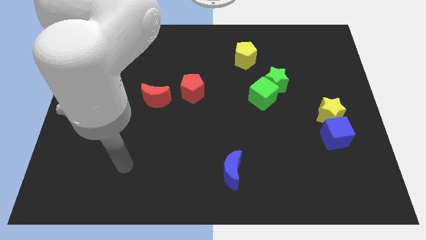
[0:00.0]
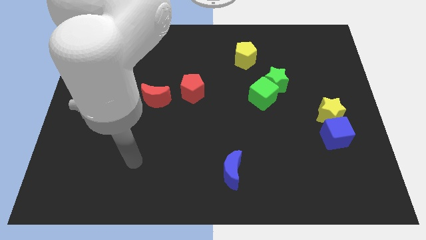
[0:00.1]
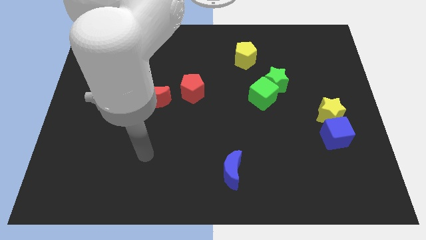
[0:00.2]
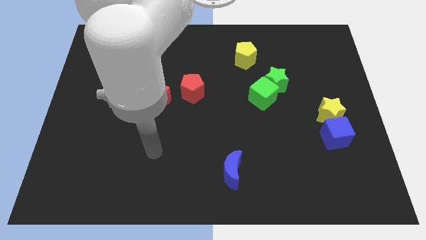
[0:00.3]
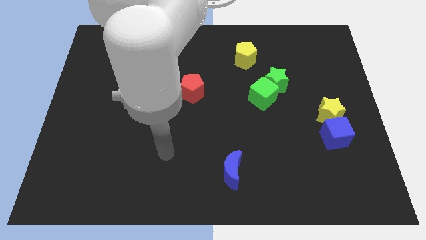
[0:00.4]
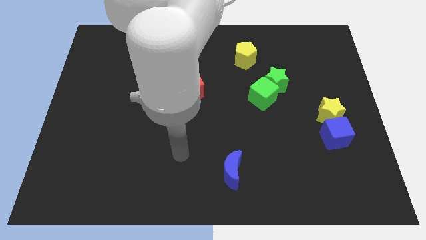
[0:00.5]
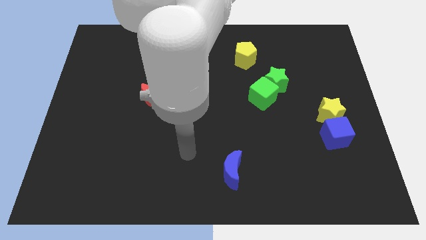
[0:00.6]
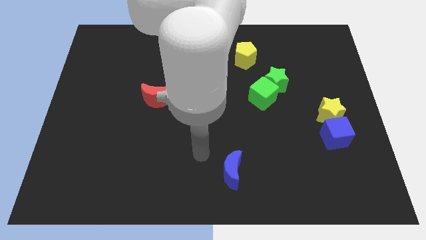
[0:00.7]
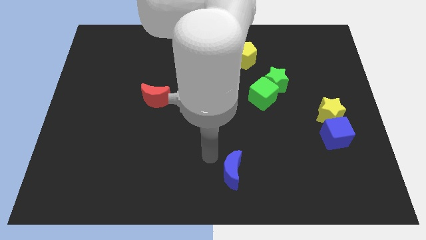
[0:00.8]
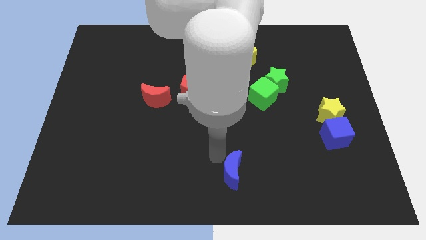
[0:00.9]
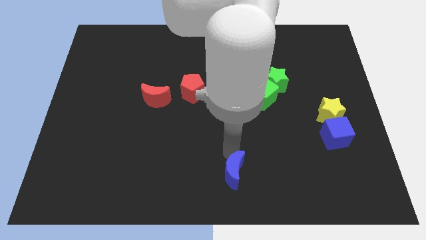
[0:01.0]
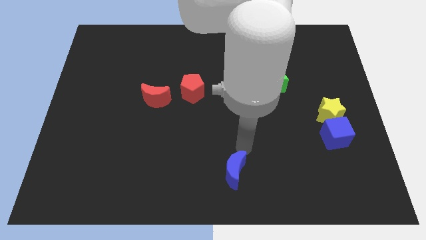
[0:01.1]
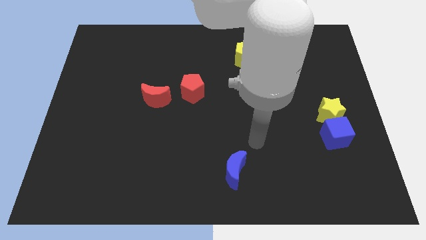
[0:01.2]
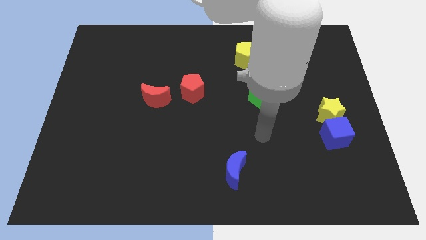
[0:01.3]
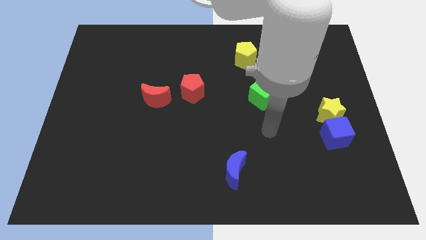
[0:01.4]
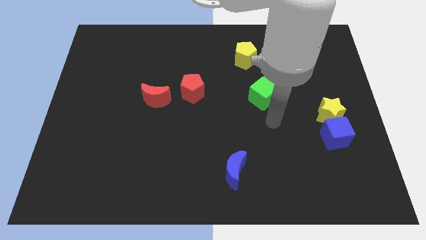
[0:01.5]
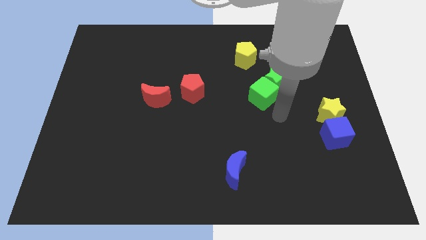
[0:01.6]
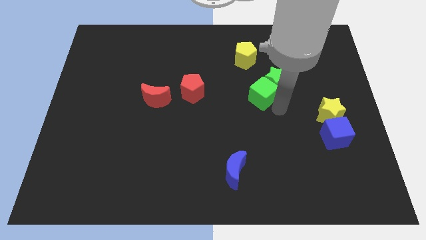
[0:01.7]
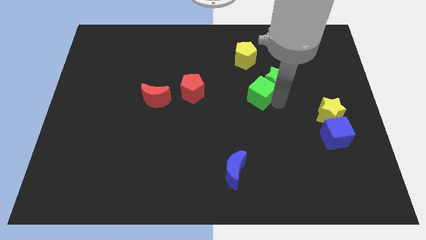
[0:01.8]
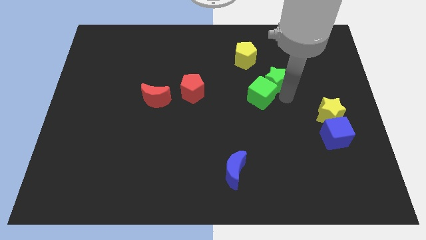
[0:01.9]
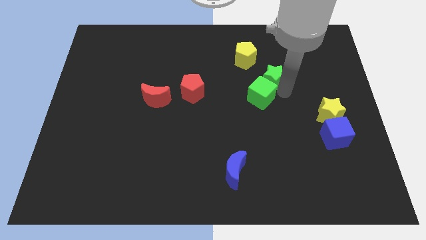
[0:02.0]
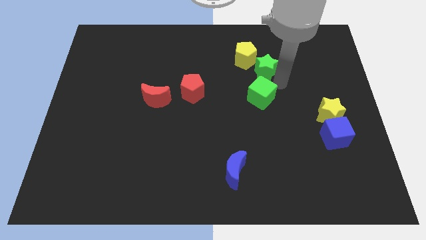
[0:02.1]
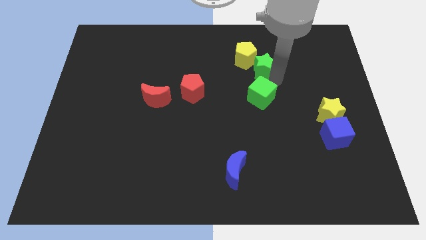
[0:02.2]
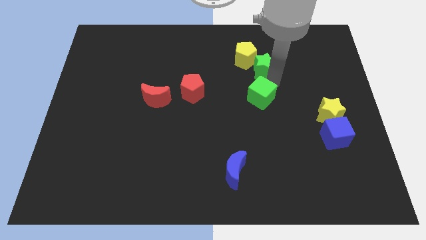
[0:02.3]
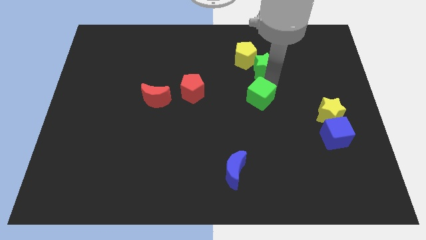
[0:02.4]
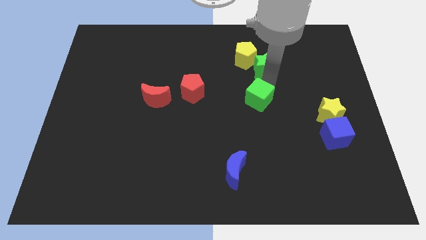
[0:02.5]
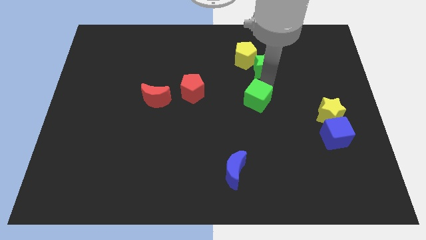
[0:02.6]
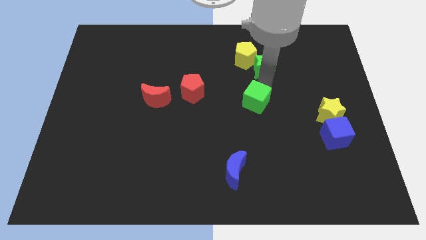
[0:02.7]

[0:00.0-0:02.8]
move the green cube away from the green star

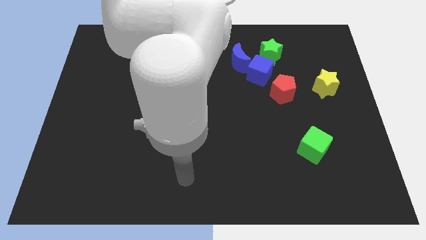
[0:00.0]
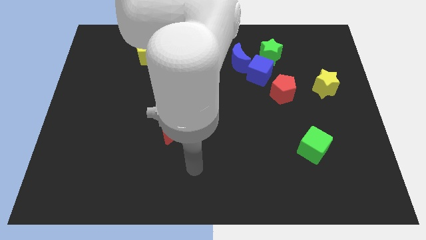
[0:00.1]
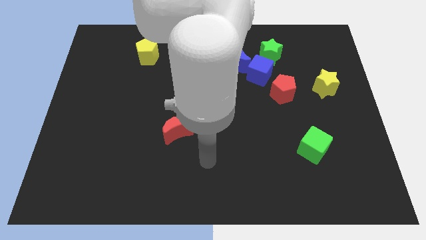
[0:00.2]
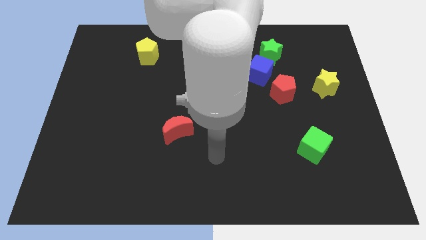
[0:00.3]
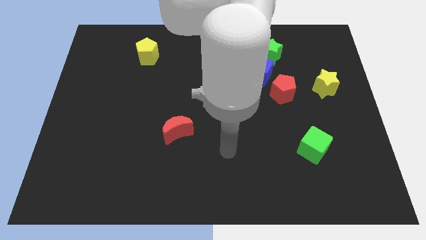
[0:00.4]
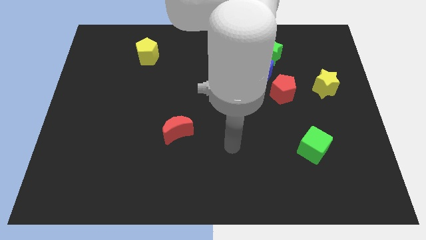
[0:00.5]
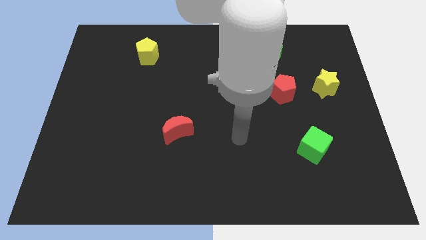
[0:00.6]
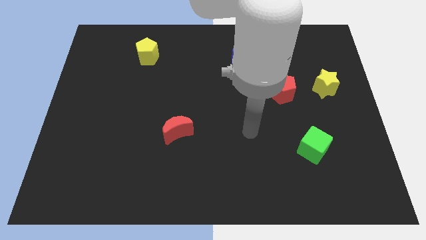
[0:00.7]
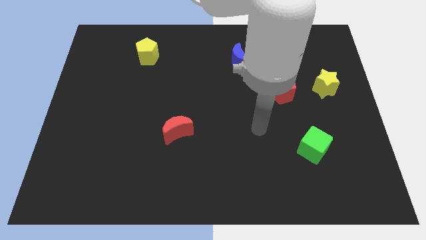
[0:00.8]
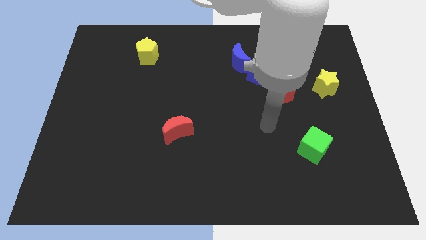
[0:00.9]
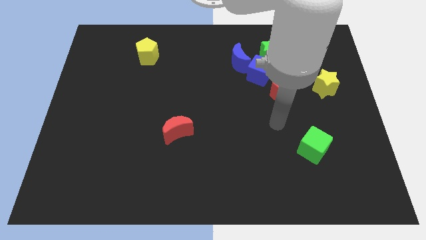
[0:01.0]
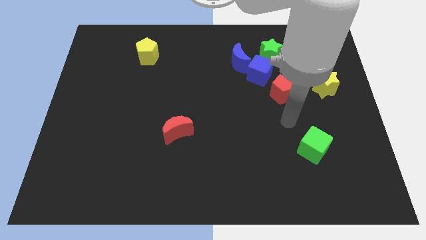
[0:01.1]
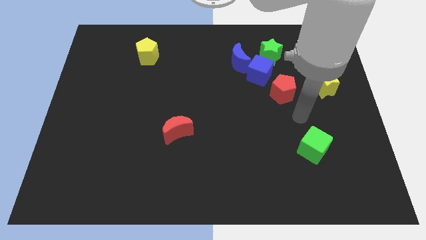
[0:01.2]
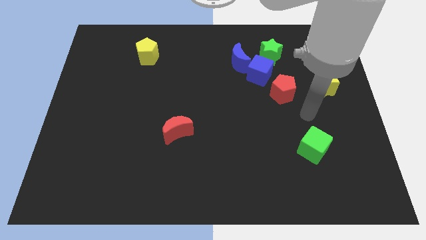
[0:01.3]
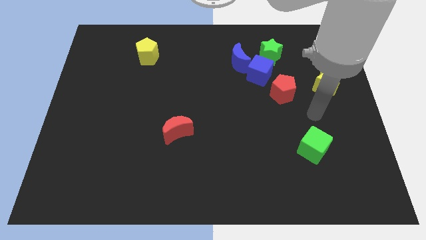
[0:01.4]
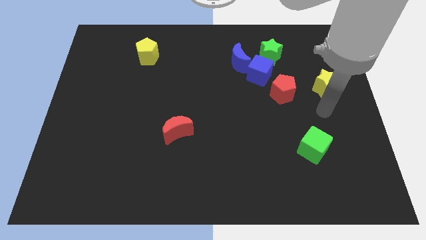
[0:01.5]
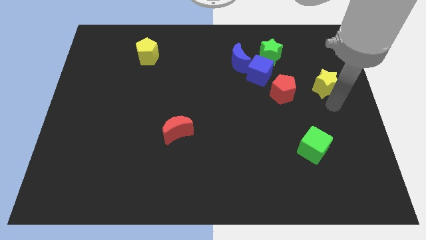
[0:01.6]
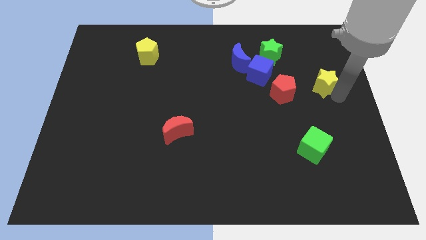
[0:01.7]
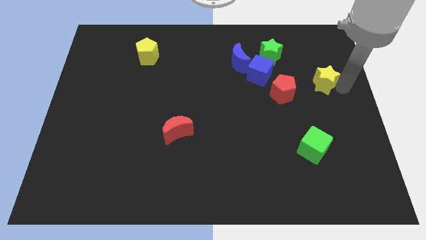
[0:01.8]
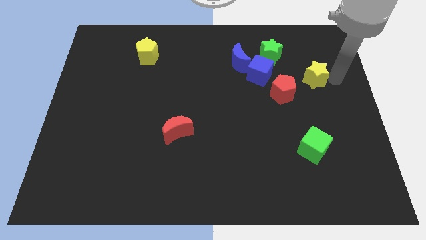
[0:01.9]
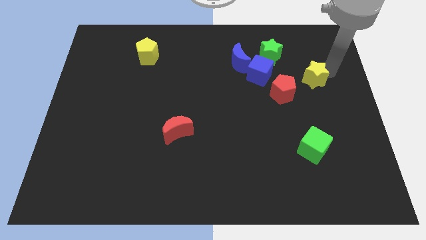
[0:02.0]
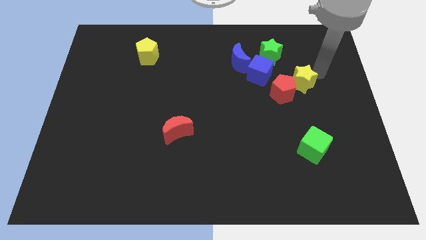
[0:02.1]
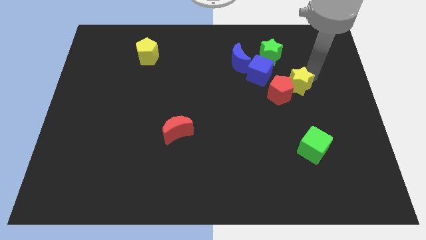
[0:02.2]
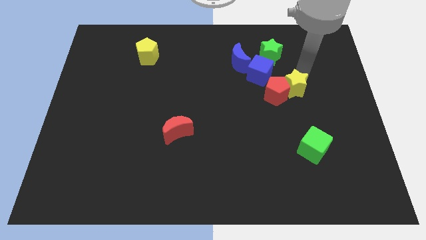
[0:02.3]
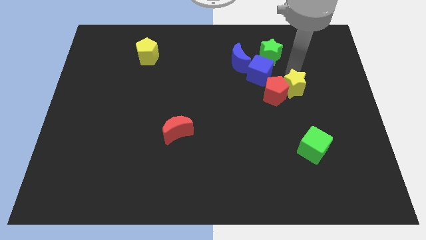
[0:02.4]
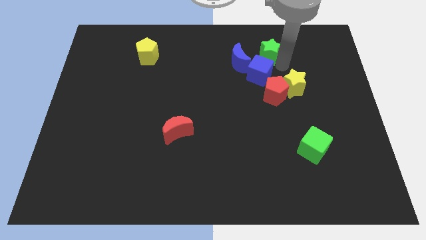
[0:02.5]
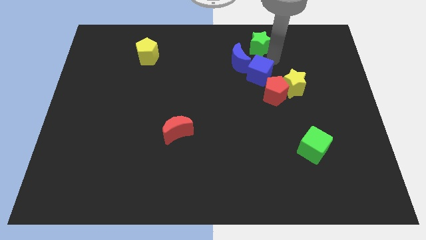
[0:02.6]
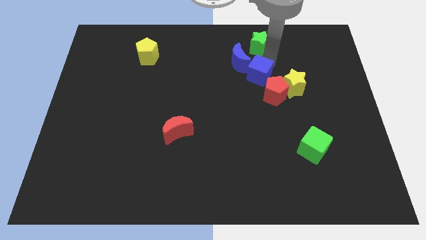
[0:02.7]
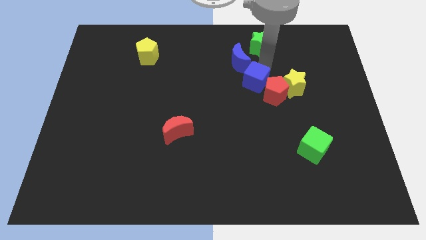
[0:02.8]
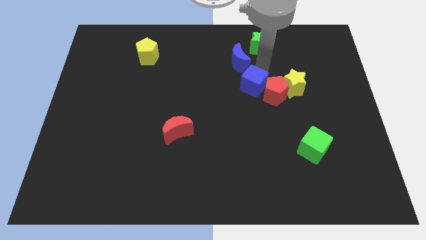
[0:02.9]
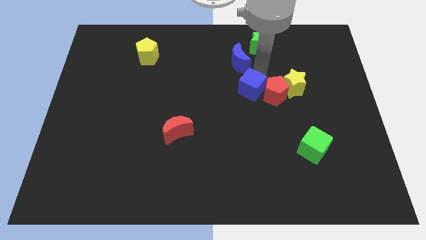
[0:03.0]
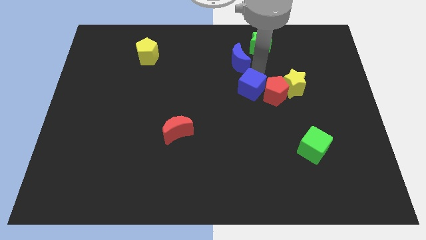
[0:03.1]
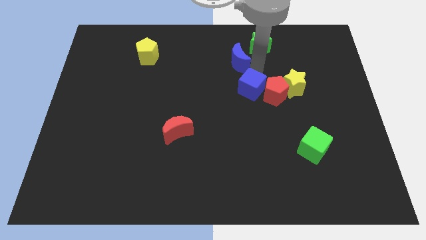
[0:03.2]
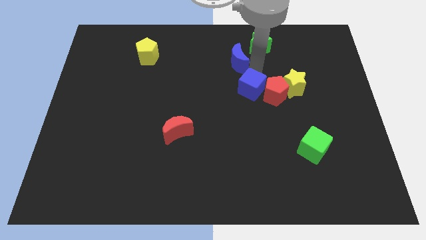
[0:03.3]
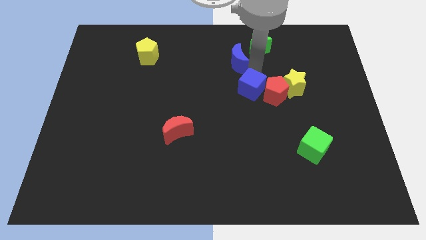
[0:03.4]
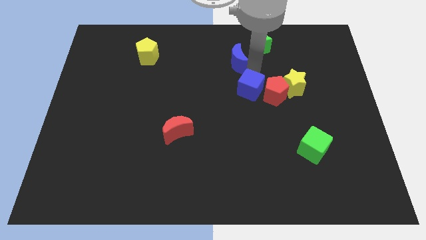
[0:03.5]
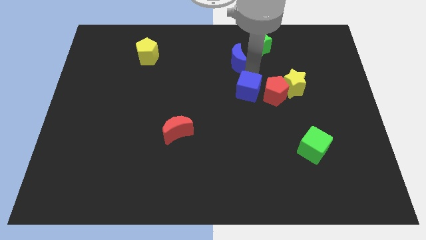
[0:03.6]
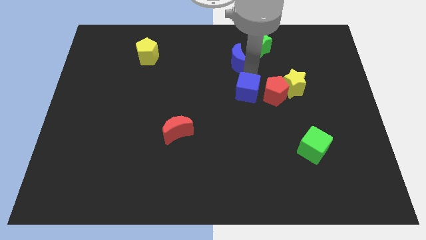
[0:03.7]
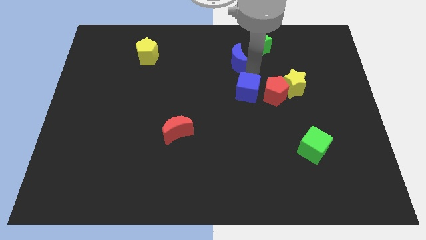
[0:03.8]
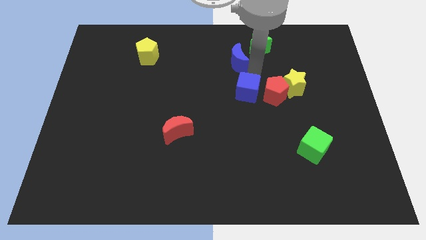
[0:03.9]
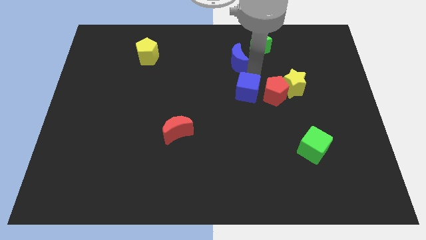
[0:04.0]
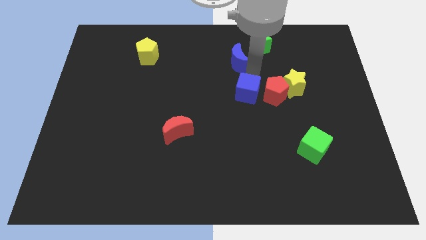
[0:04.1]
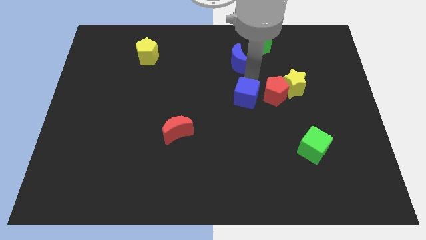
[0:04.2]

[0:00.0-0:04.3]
pull the blue cube apart from the group

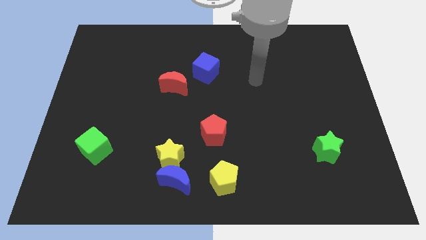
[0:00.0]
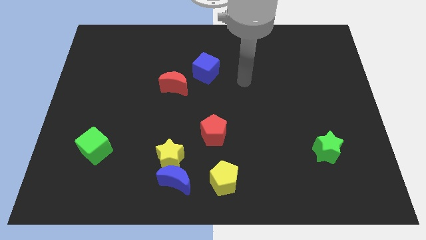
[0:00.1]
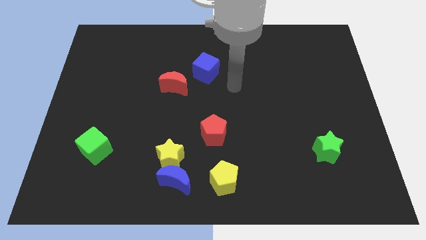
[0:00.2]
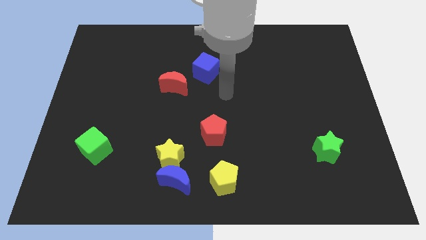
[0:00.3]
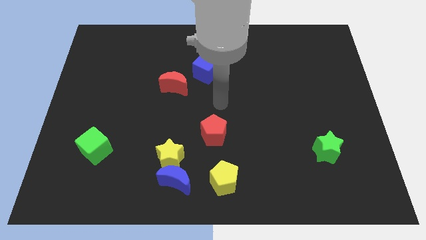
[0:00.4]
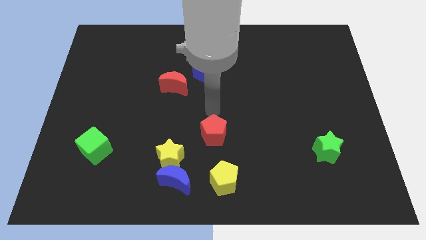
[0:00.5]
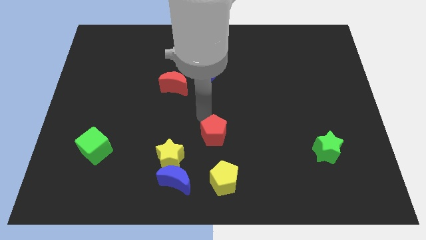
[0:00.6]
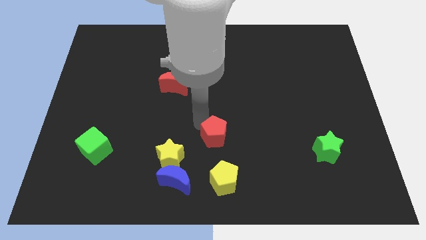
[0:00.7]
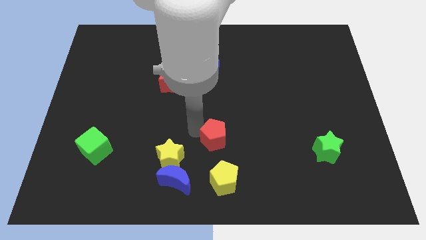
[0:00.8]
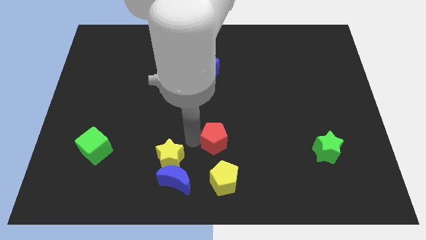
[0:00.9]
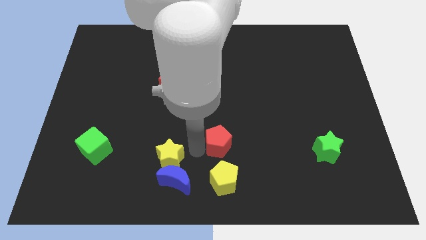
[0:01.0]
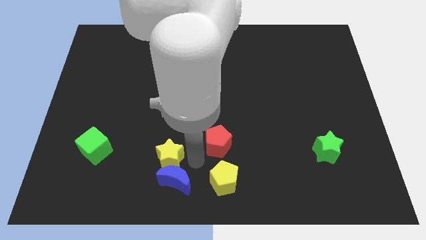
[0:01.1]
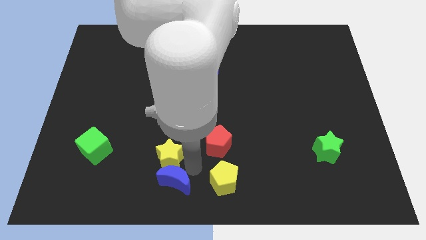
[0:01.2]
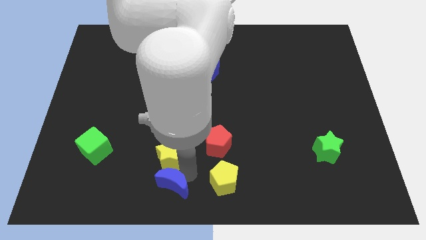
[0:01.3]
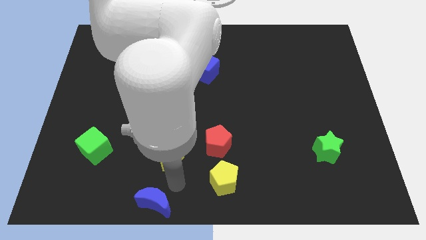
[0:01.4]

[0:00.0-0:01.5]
move the yellow star away from the blue moon

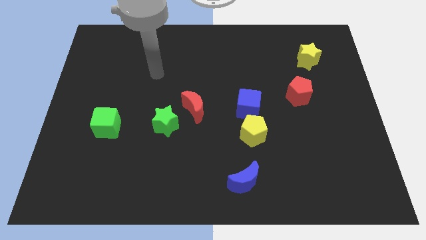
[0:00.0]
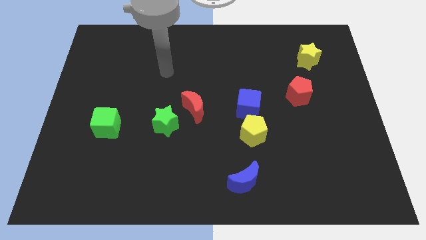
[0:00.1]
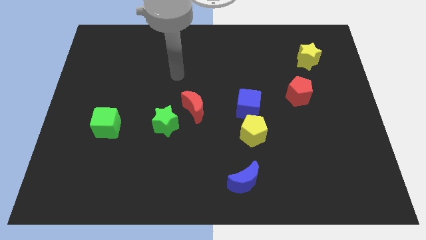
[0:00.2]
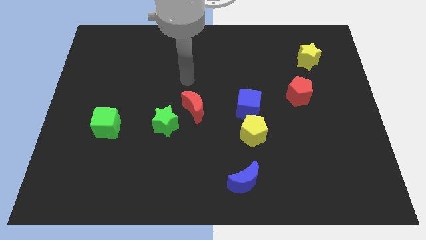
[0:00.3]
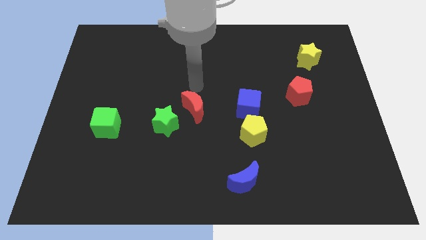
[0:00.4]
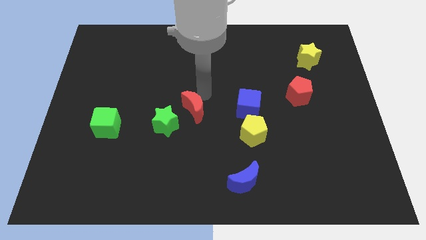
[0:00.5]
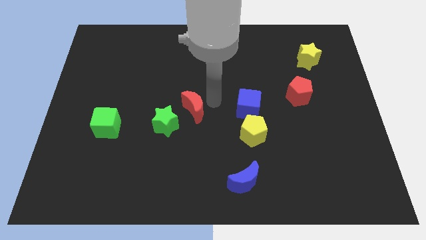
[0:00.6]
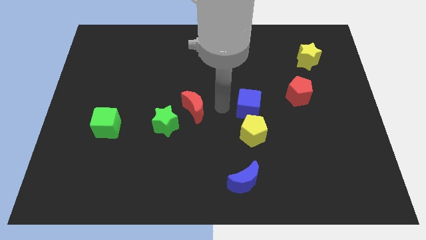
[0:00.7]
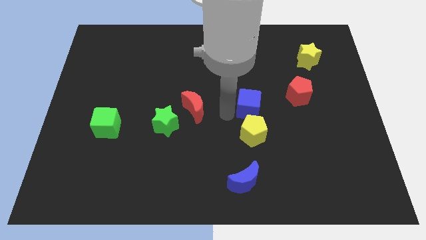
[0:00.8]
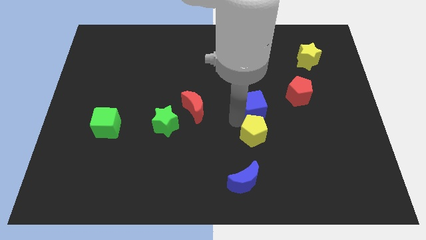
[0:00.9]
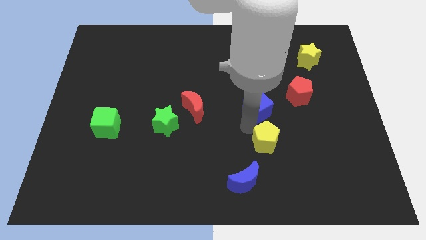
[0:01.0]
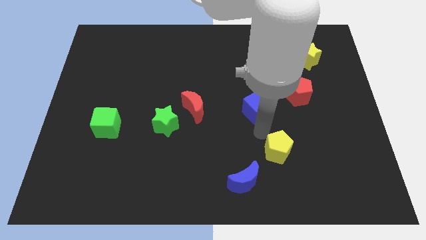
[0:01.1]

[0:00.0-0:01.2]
move the blue cube away from the yellow pentagon
